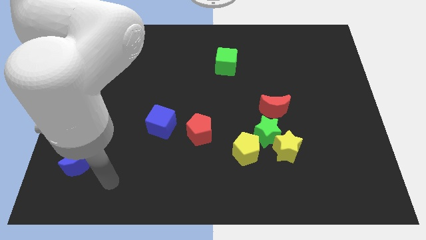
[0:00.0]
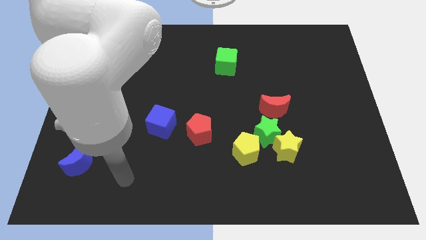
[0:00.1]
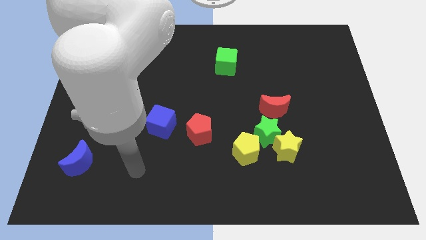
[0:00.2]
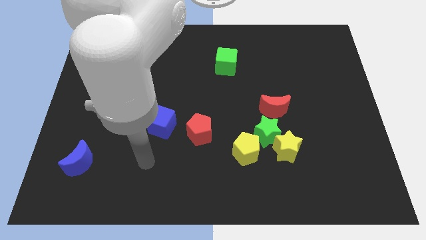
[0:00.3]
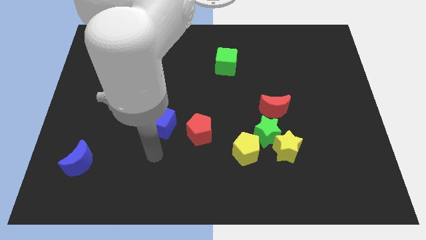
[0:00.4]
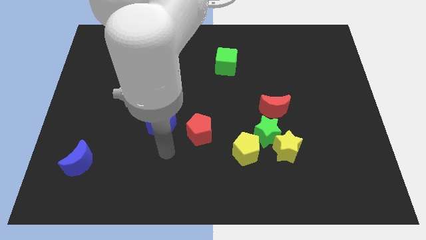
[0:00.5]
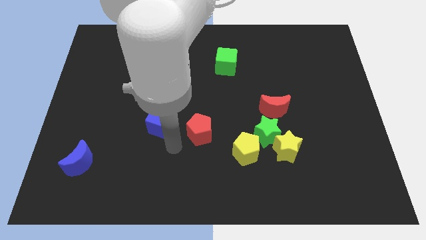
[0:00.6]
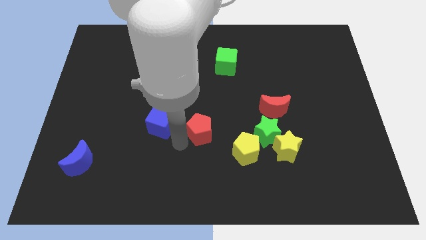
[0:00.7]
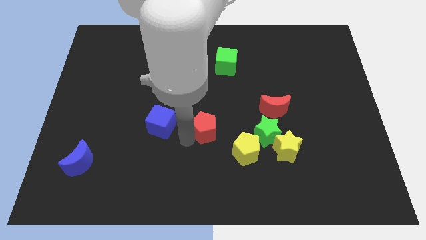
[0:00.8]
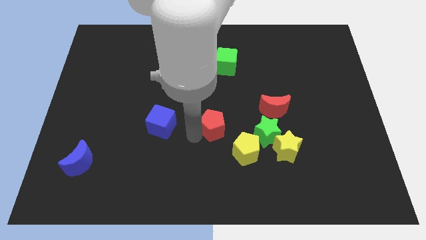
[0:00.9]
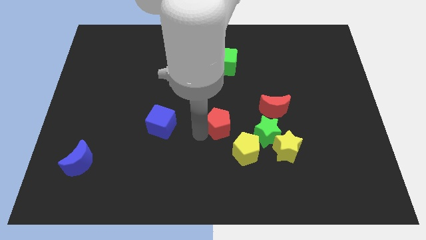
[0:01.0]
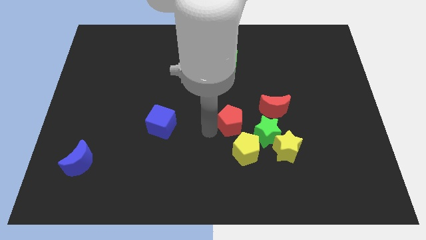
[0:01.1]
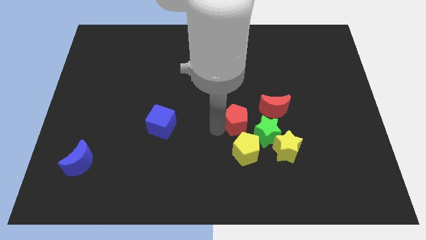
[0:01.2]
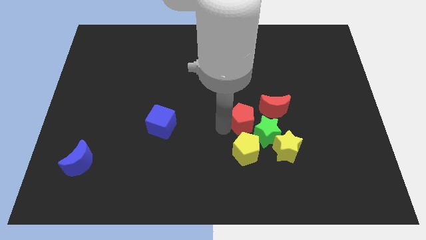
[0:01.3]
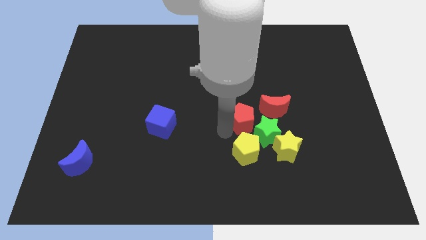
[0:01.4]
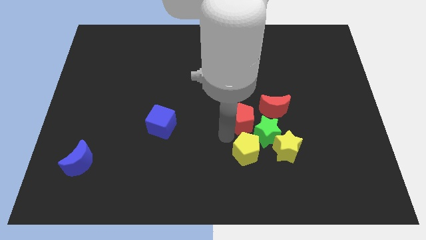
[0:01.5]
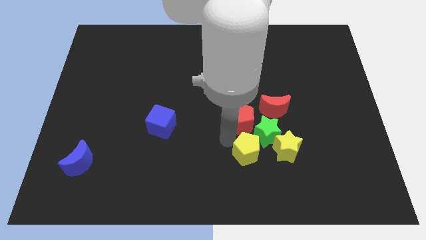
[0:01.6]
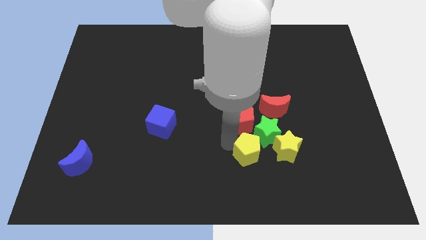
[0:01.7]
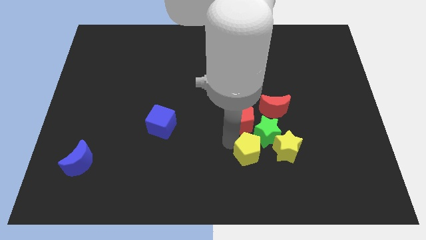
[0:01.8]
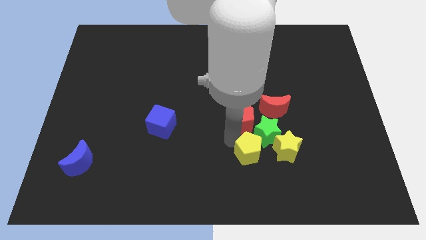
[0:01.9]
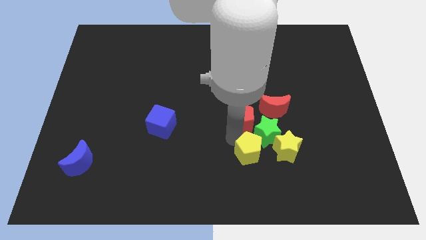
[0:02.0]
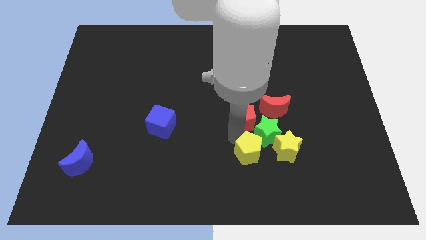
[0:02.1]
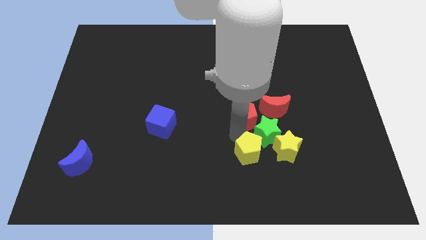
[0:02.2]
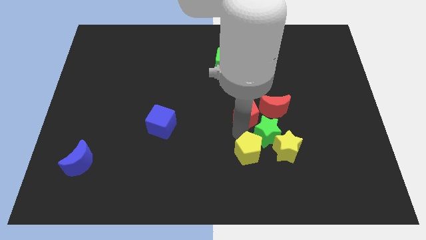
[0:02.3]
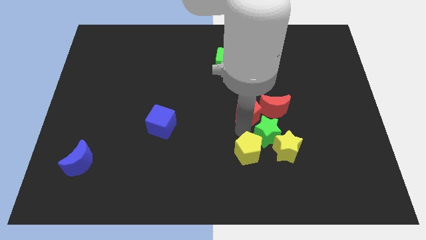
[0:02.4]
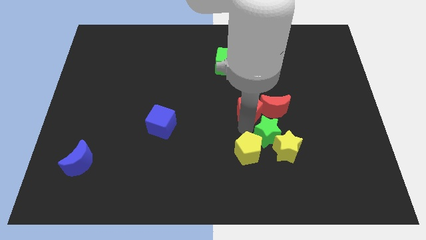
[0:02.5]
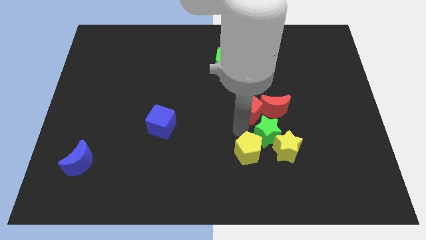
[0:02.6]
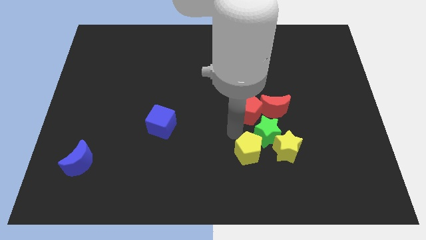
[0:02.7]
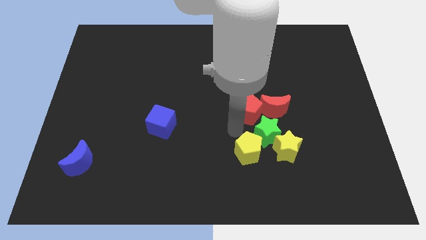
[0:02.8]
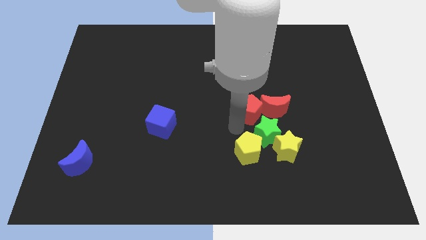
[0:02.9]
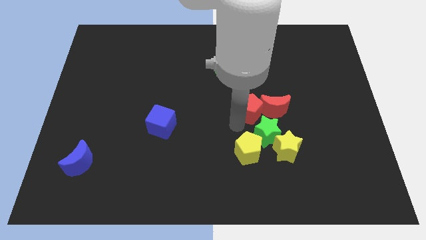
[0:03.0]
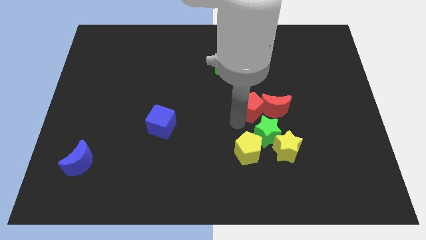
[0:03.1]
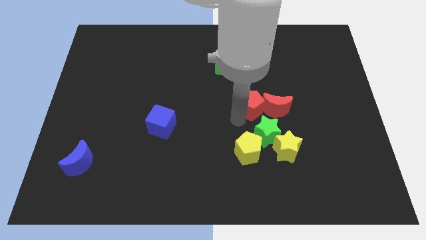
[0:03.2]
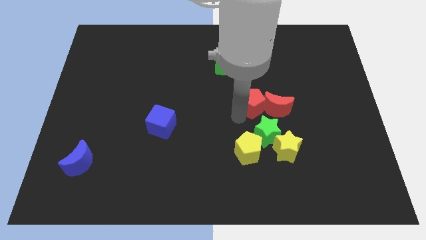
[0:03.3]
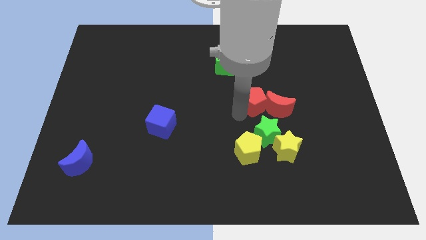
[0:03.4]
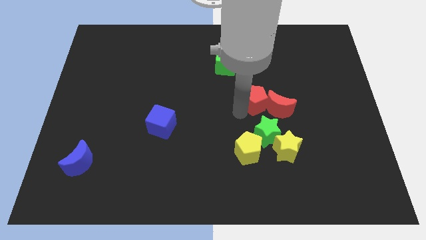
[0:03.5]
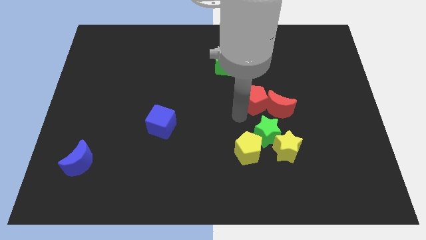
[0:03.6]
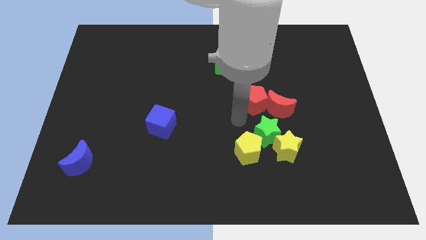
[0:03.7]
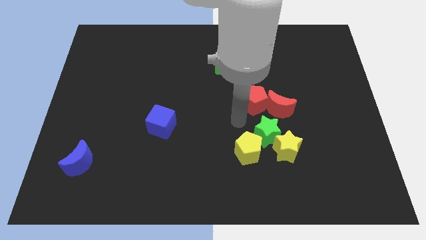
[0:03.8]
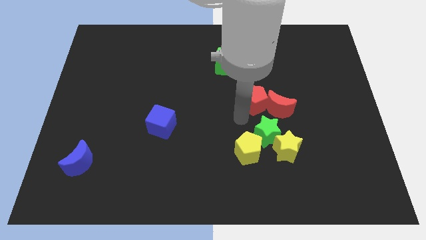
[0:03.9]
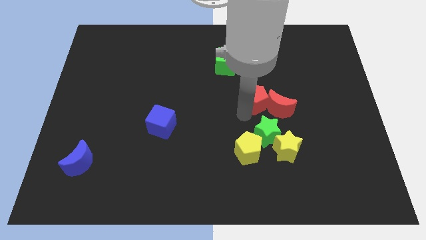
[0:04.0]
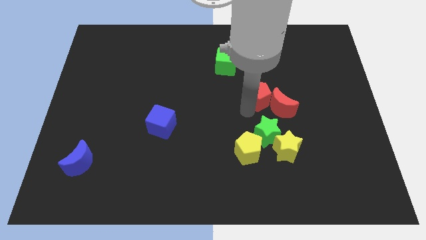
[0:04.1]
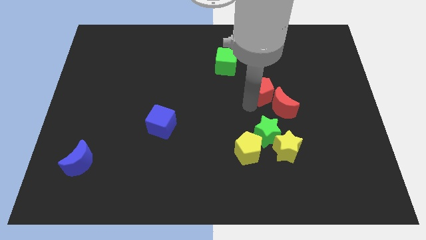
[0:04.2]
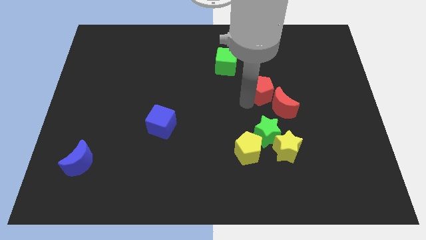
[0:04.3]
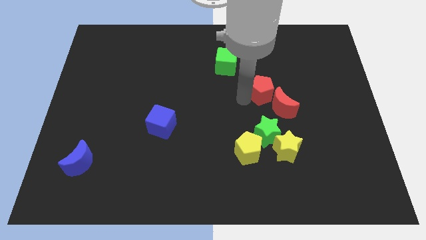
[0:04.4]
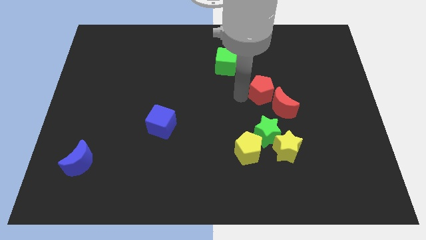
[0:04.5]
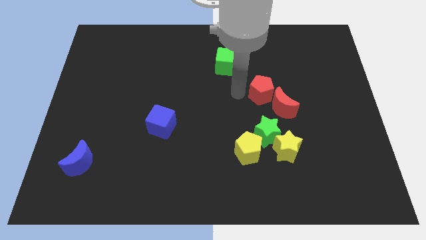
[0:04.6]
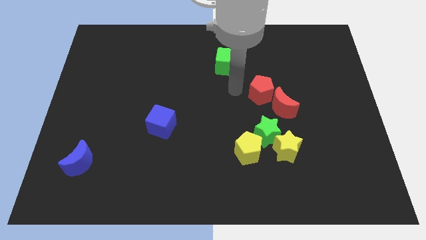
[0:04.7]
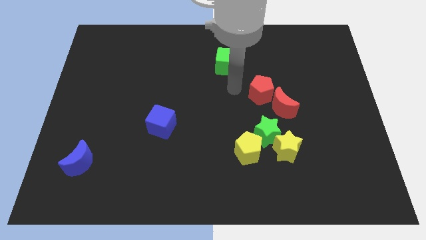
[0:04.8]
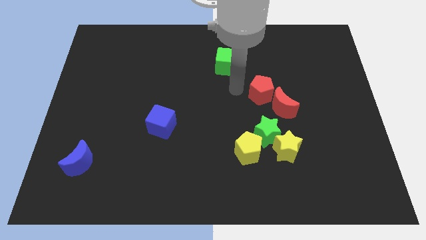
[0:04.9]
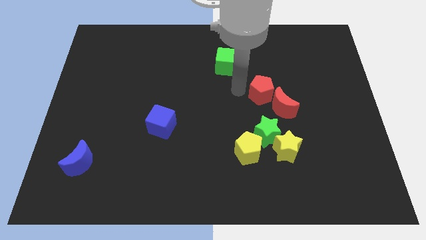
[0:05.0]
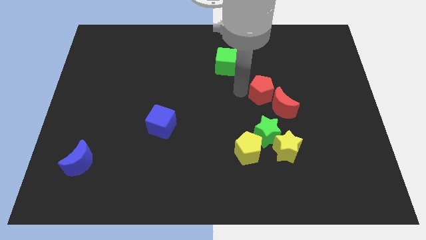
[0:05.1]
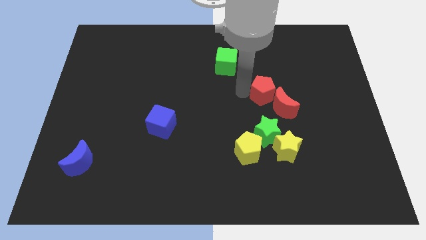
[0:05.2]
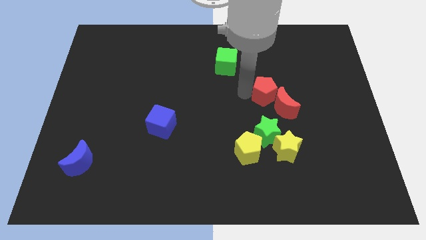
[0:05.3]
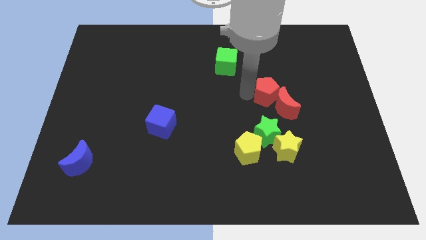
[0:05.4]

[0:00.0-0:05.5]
put the red pentagon to the top side of the yellow star

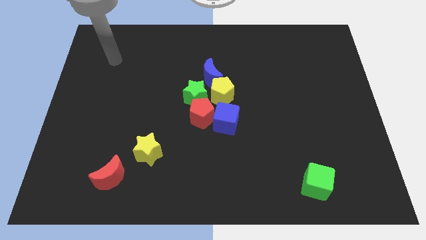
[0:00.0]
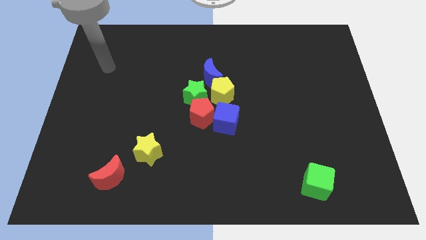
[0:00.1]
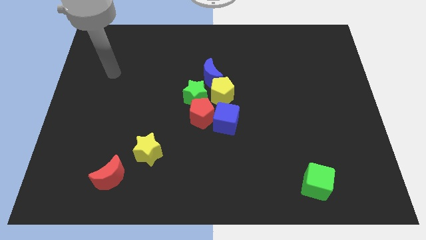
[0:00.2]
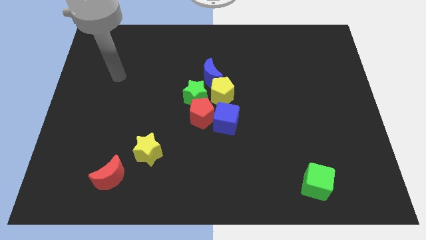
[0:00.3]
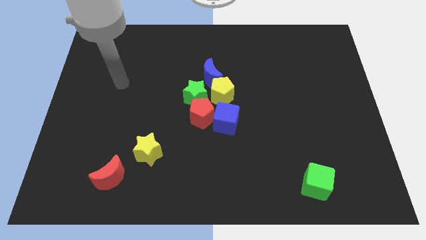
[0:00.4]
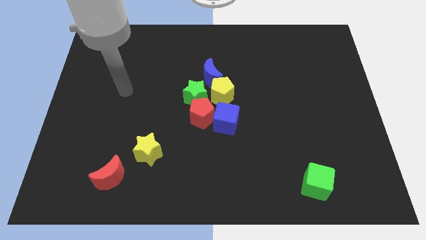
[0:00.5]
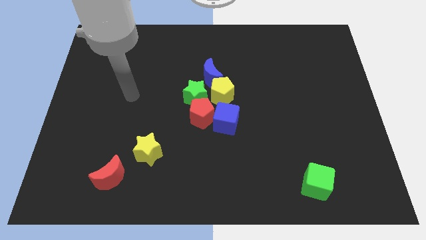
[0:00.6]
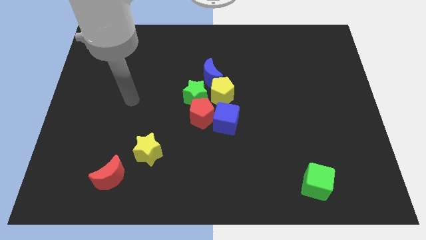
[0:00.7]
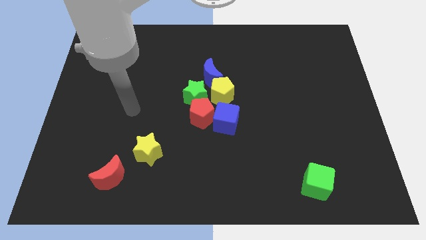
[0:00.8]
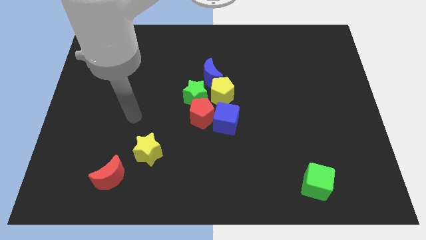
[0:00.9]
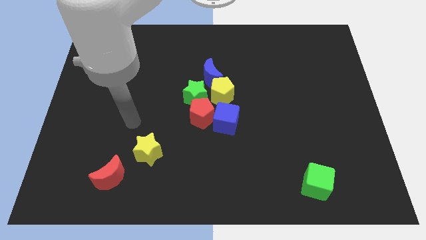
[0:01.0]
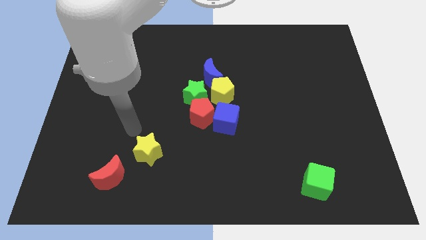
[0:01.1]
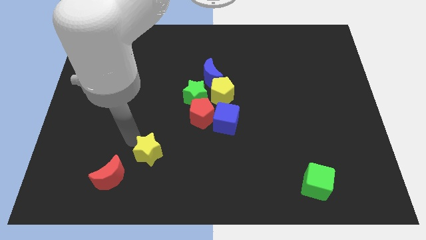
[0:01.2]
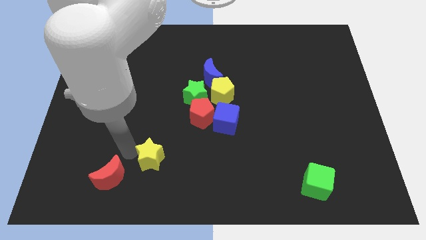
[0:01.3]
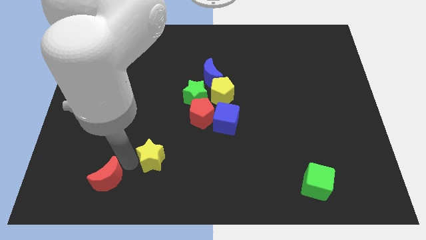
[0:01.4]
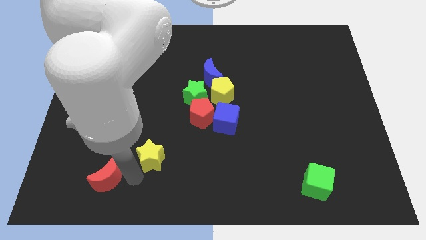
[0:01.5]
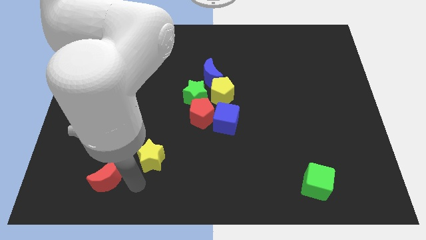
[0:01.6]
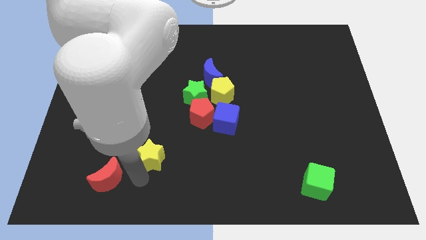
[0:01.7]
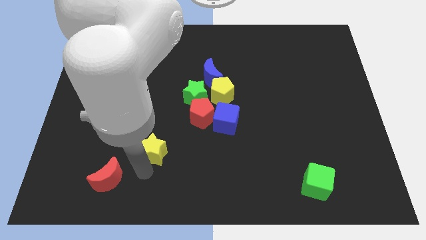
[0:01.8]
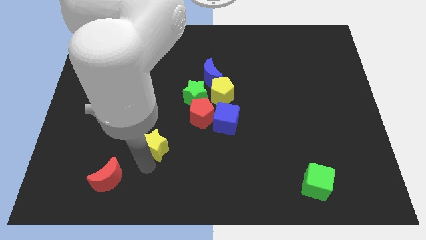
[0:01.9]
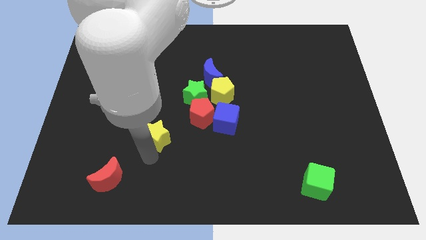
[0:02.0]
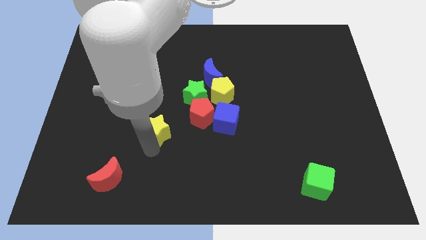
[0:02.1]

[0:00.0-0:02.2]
push the yellow star to the left side of the blue cube
